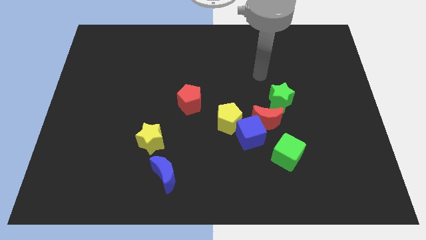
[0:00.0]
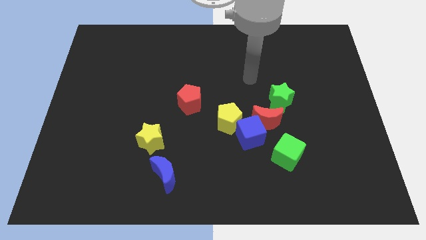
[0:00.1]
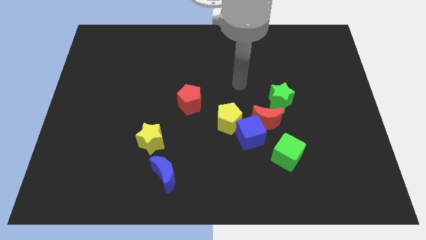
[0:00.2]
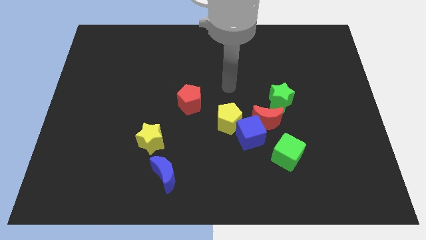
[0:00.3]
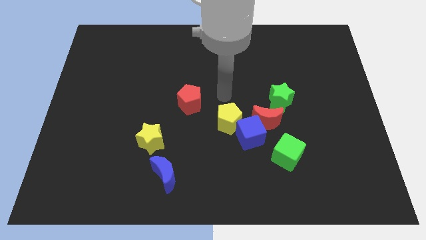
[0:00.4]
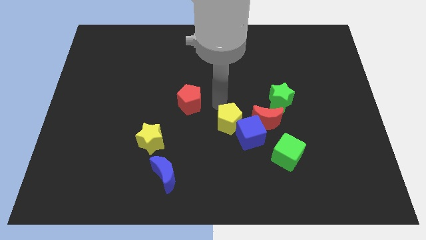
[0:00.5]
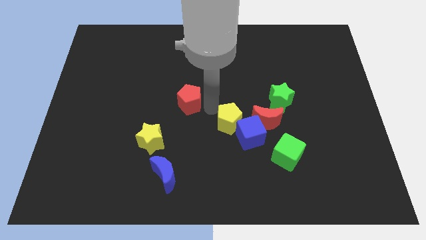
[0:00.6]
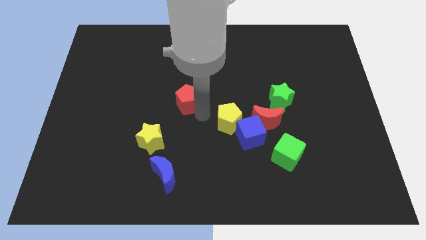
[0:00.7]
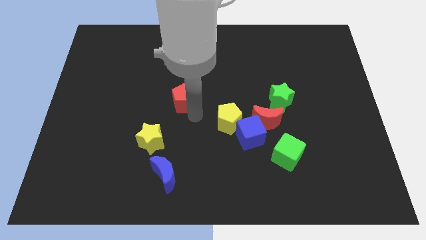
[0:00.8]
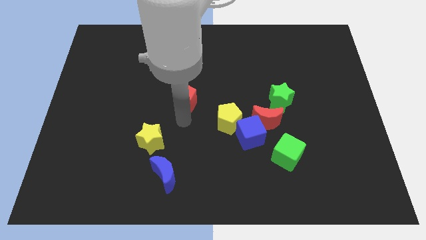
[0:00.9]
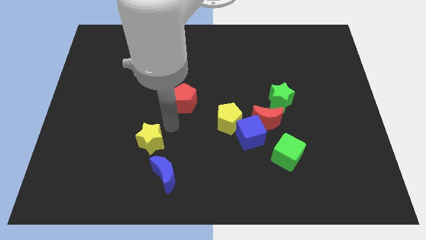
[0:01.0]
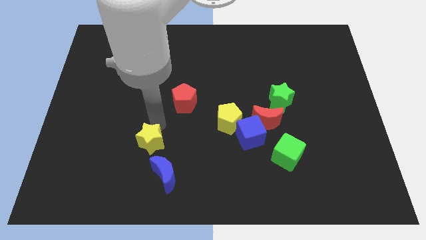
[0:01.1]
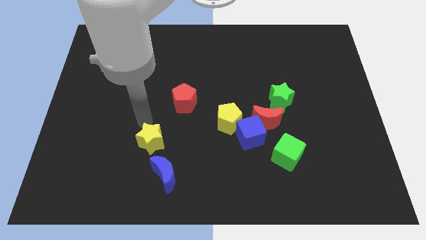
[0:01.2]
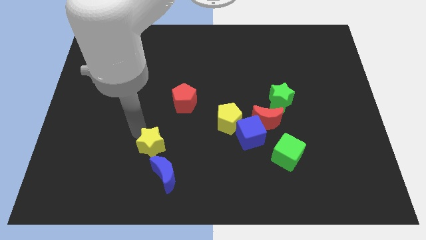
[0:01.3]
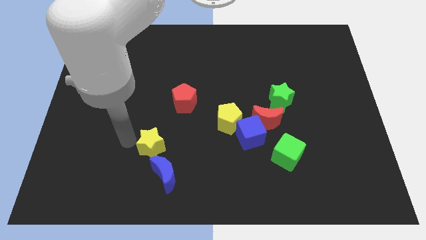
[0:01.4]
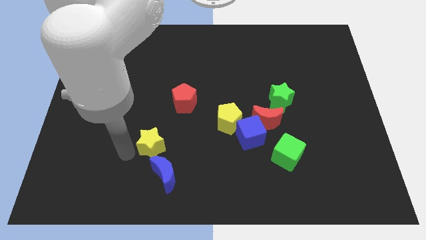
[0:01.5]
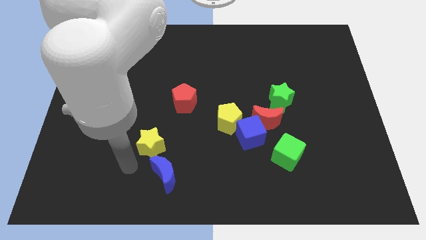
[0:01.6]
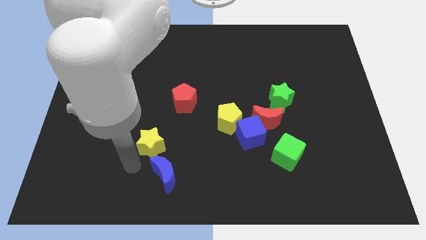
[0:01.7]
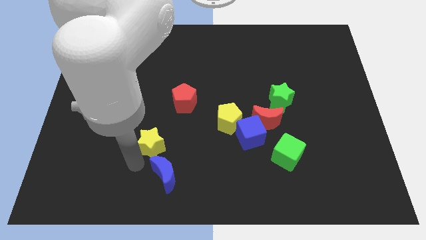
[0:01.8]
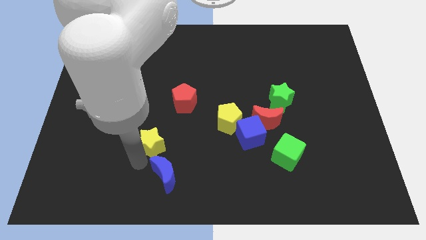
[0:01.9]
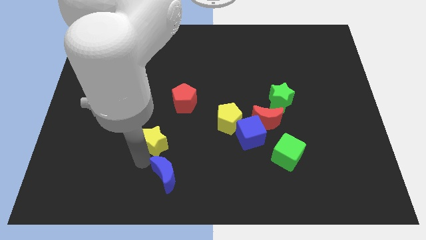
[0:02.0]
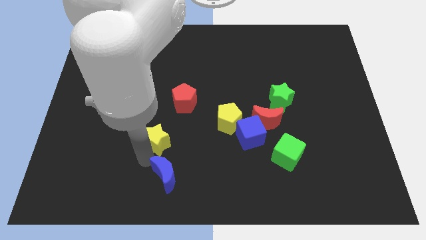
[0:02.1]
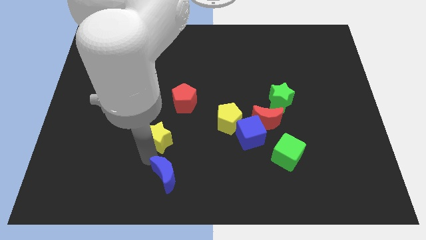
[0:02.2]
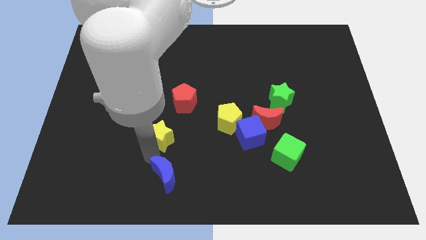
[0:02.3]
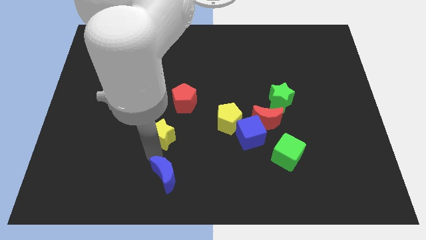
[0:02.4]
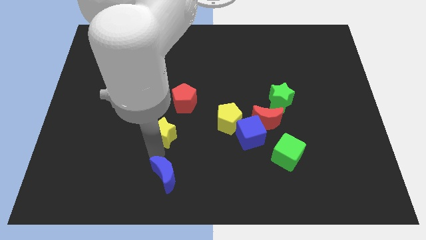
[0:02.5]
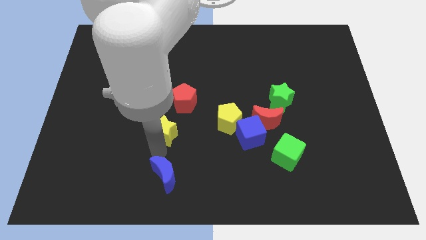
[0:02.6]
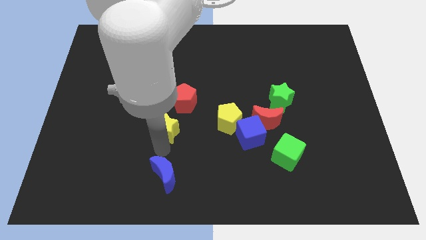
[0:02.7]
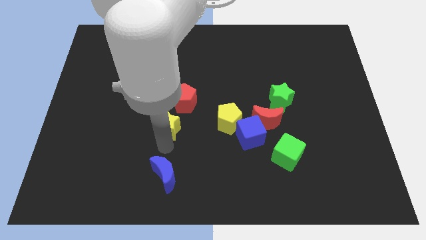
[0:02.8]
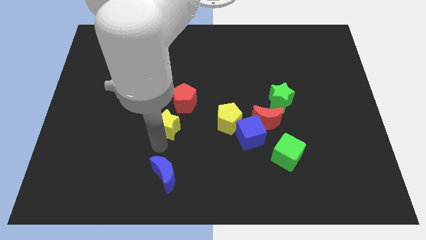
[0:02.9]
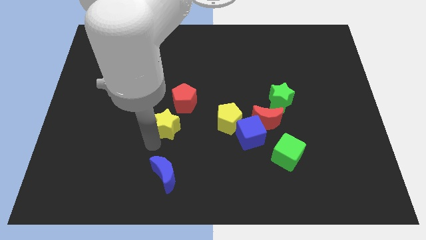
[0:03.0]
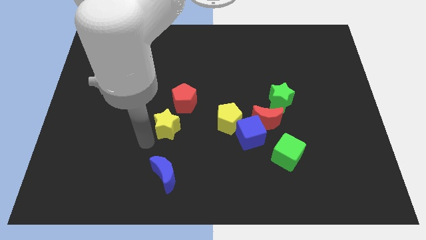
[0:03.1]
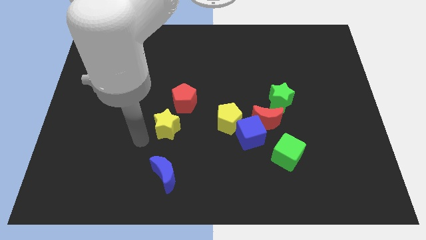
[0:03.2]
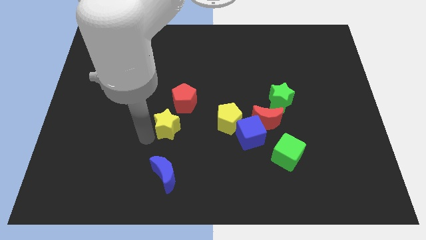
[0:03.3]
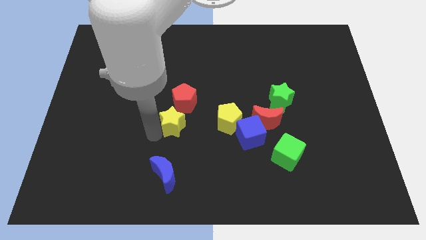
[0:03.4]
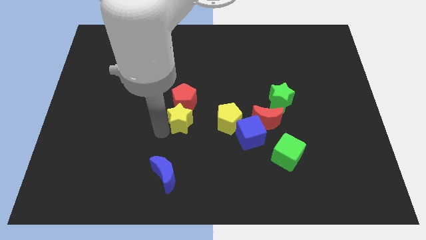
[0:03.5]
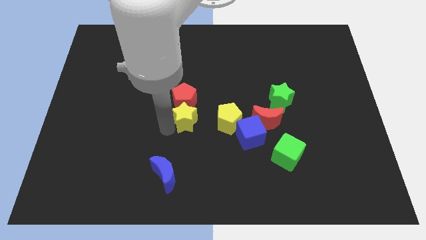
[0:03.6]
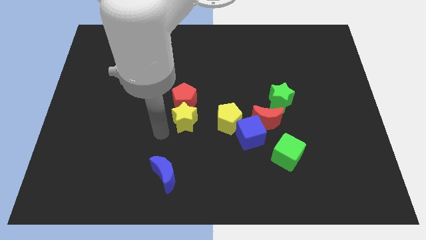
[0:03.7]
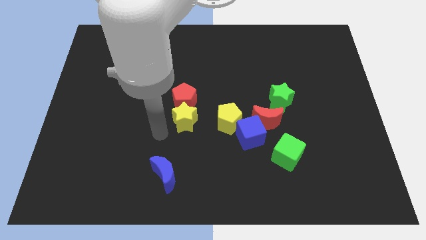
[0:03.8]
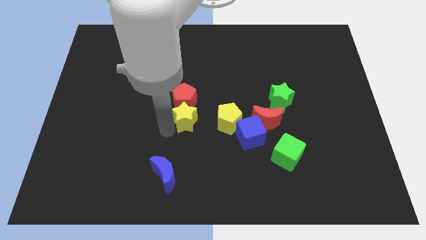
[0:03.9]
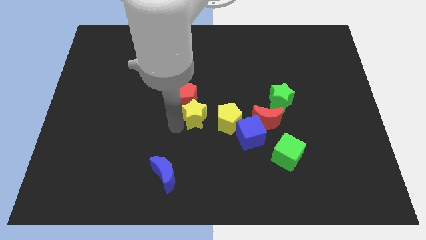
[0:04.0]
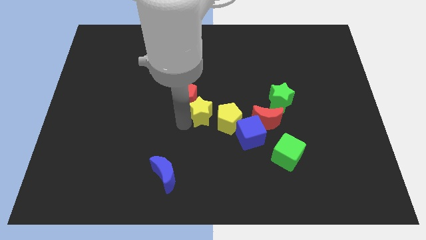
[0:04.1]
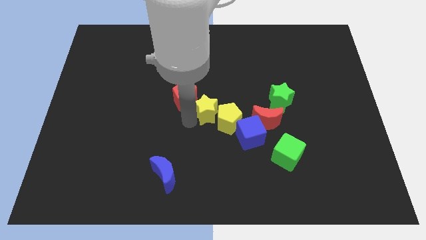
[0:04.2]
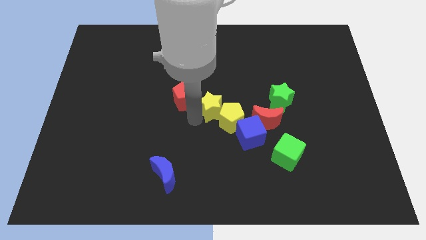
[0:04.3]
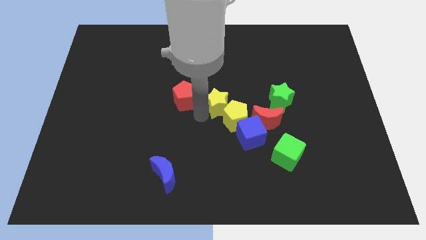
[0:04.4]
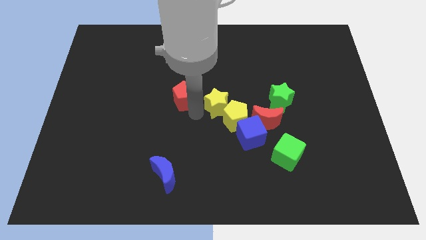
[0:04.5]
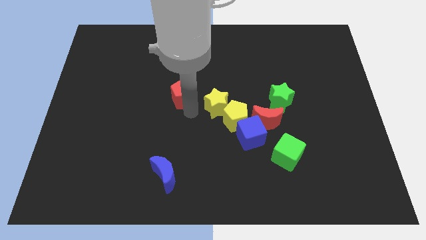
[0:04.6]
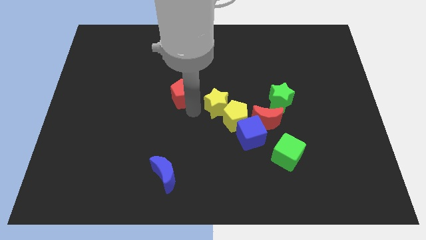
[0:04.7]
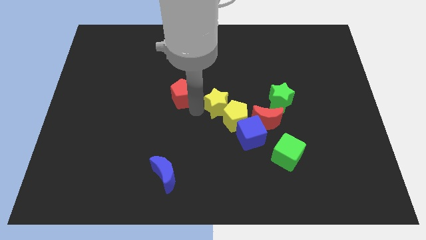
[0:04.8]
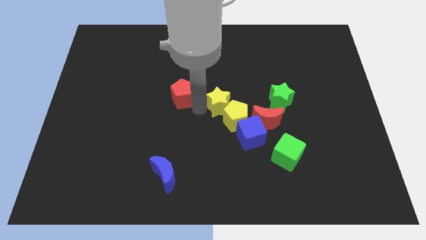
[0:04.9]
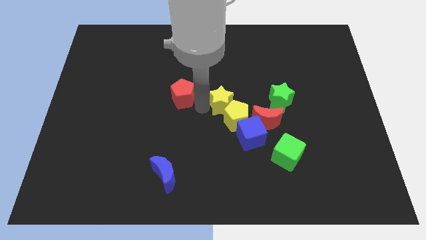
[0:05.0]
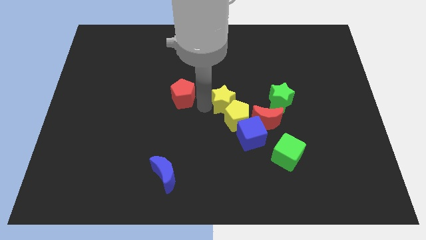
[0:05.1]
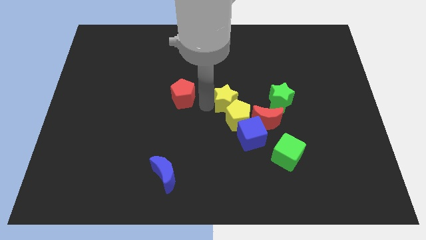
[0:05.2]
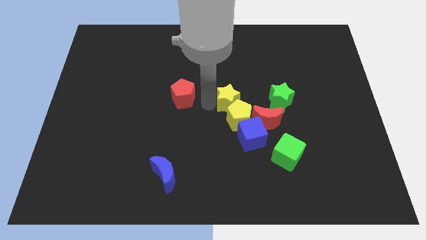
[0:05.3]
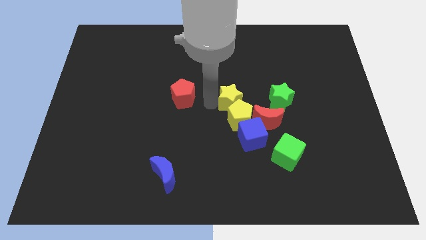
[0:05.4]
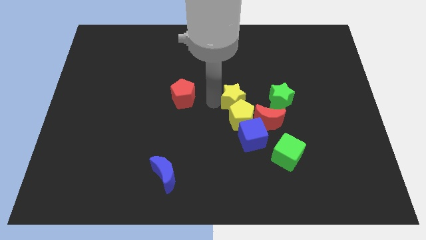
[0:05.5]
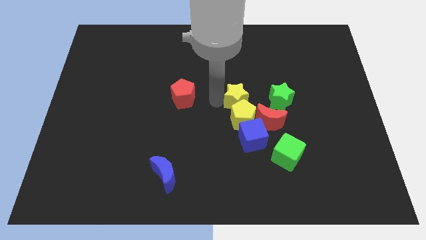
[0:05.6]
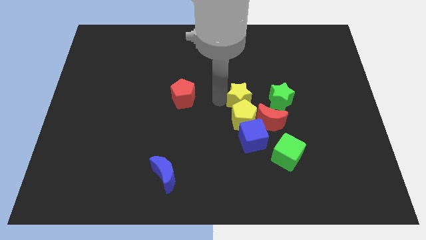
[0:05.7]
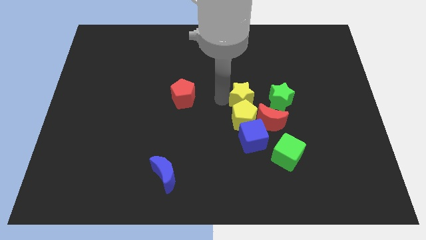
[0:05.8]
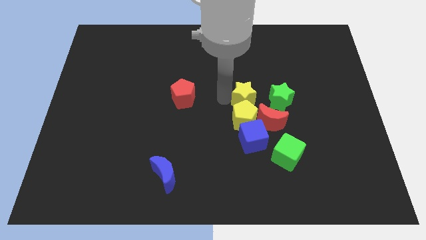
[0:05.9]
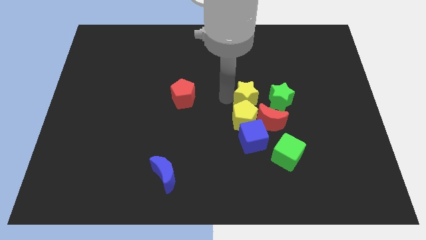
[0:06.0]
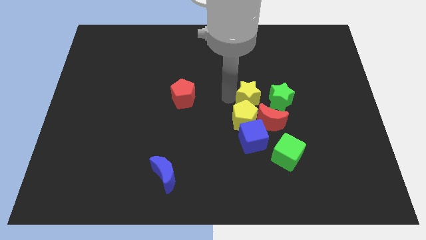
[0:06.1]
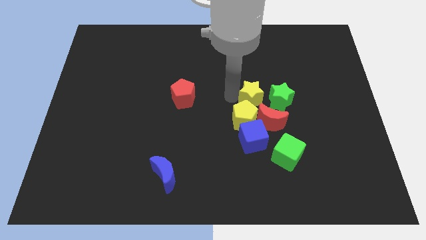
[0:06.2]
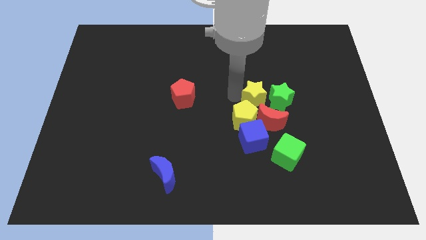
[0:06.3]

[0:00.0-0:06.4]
move the yellow star to the green star
